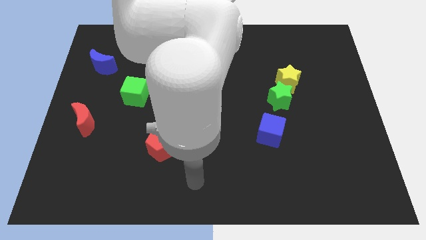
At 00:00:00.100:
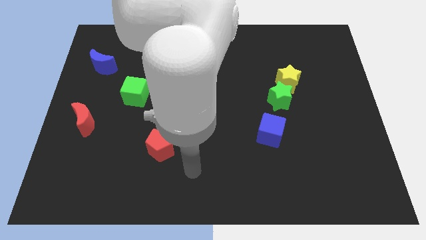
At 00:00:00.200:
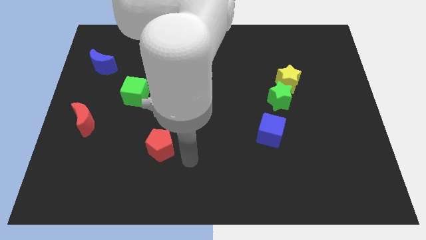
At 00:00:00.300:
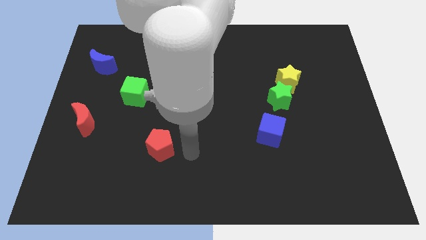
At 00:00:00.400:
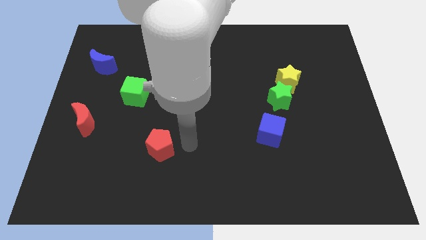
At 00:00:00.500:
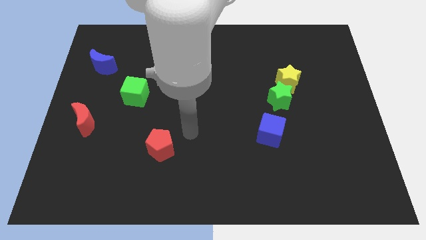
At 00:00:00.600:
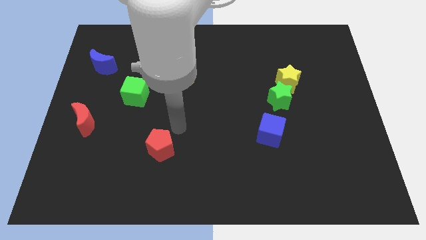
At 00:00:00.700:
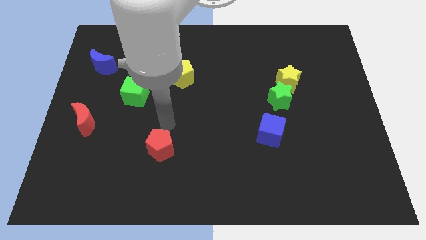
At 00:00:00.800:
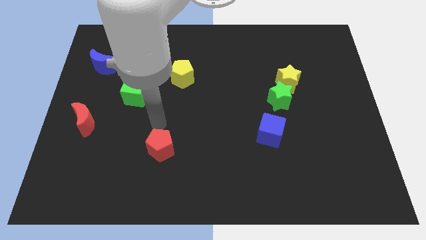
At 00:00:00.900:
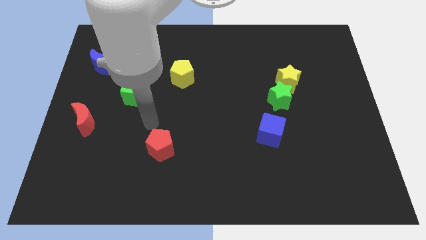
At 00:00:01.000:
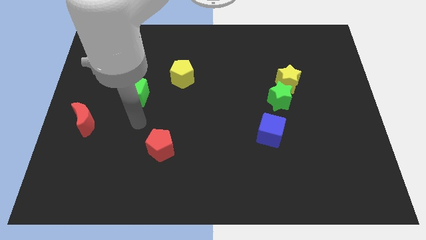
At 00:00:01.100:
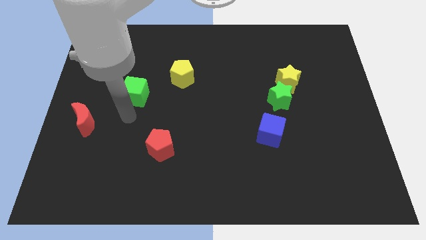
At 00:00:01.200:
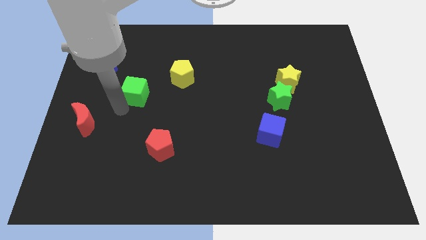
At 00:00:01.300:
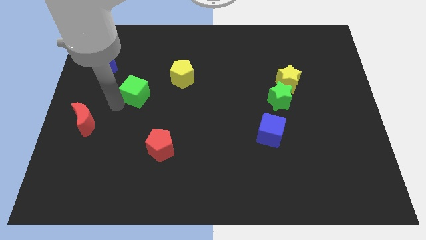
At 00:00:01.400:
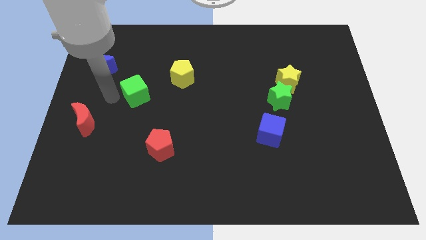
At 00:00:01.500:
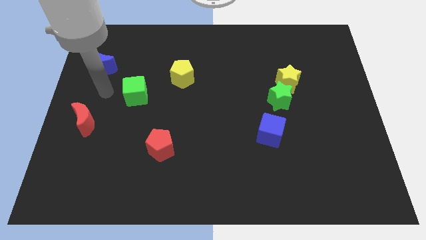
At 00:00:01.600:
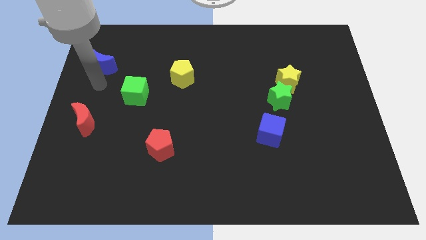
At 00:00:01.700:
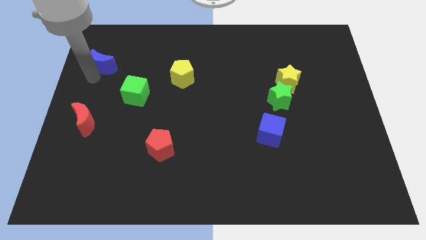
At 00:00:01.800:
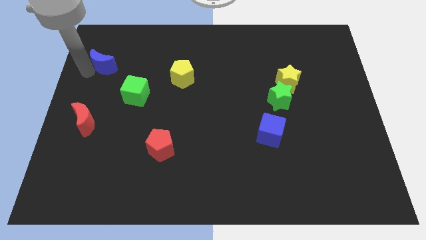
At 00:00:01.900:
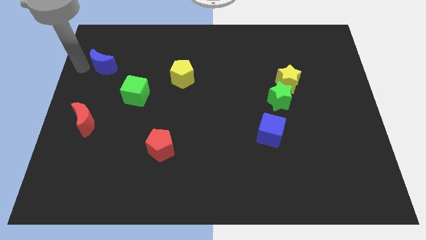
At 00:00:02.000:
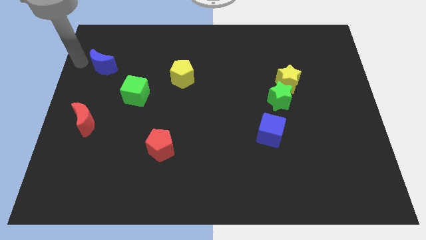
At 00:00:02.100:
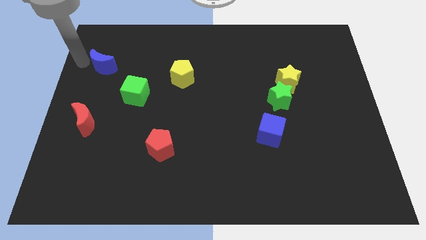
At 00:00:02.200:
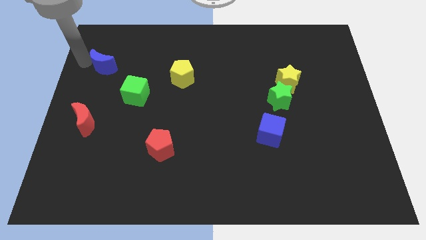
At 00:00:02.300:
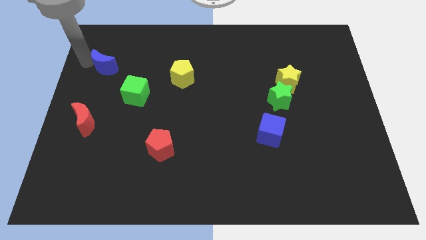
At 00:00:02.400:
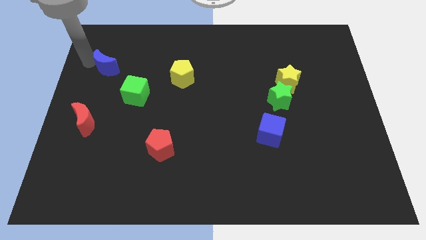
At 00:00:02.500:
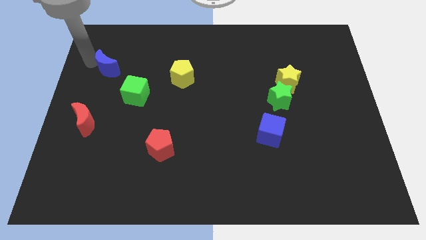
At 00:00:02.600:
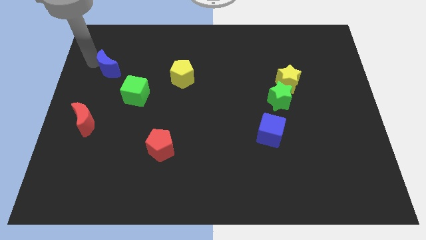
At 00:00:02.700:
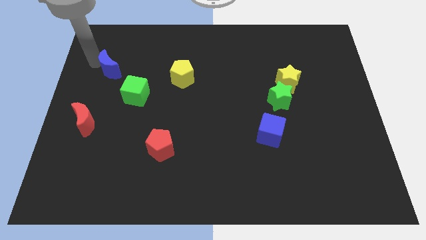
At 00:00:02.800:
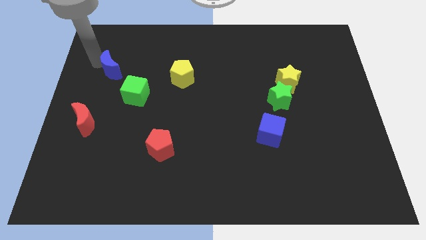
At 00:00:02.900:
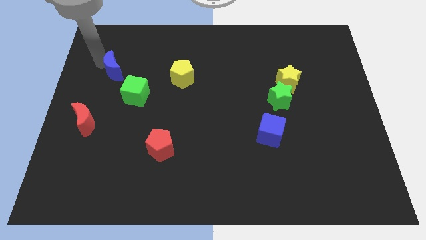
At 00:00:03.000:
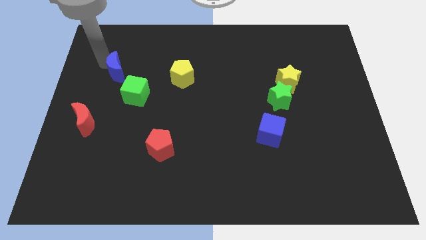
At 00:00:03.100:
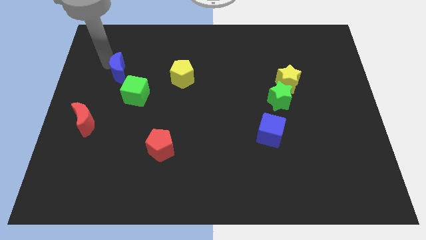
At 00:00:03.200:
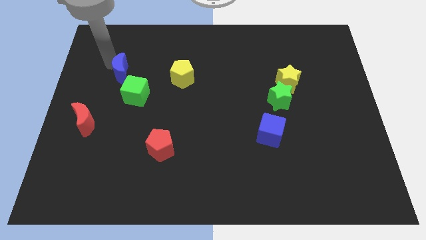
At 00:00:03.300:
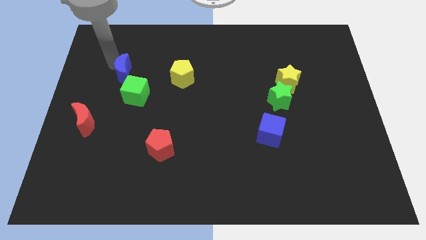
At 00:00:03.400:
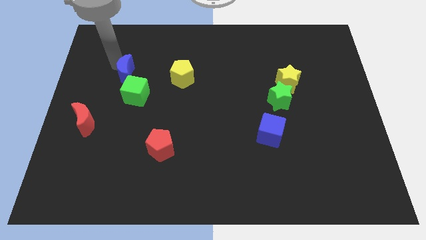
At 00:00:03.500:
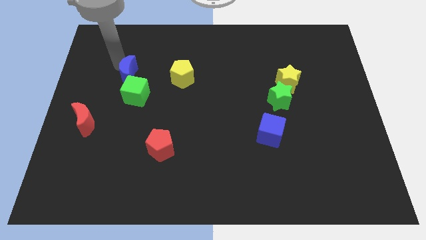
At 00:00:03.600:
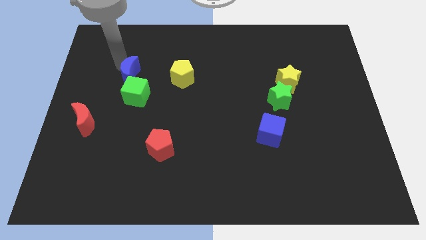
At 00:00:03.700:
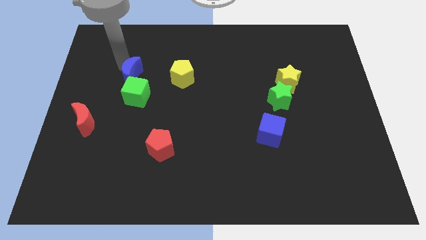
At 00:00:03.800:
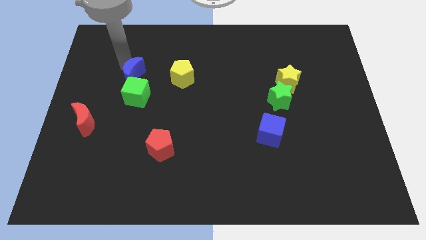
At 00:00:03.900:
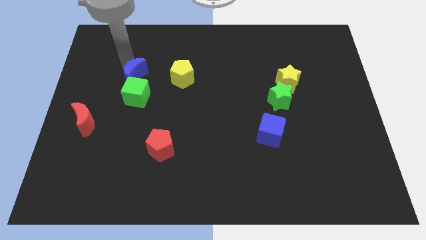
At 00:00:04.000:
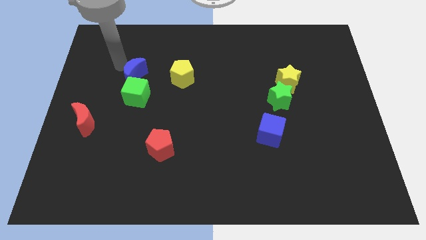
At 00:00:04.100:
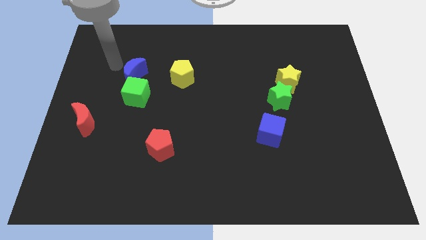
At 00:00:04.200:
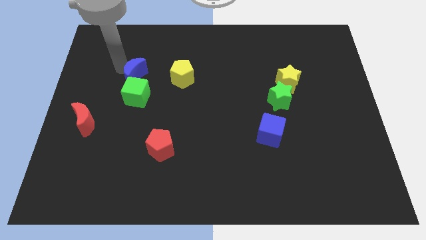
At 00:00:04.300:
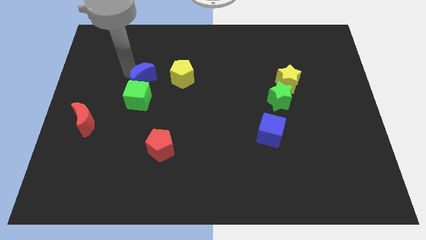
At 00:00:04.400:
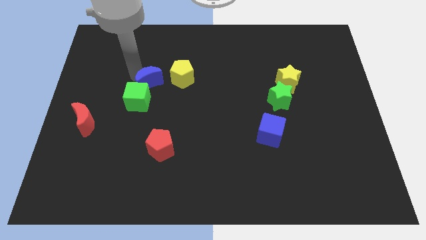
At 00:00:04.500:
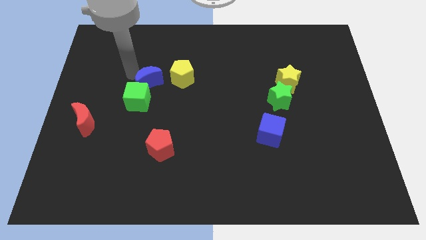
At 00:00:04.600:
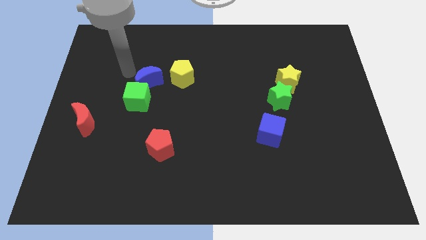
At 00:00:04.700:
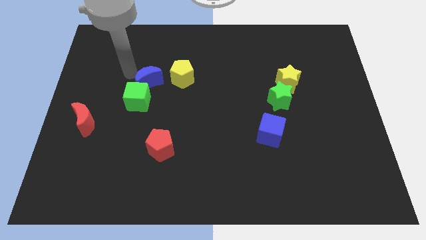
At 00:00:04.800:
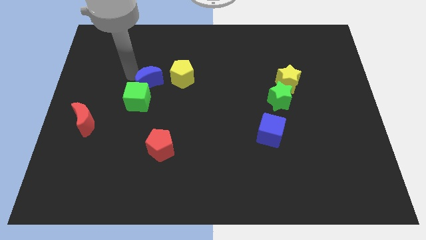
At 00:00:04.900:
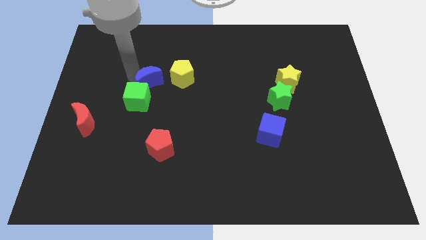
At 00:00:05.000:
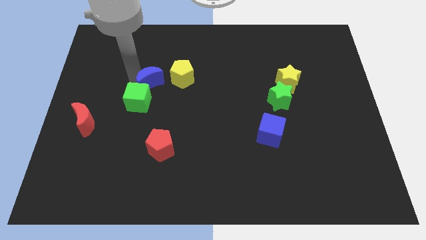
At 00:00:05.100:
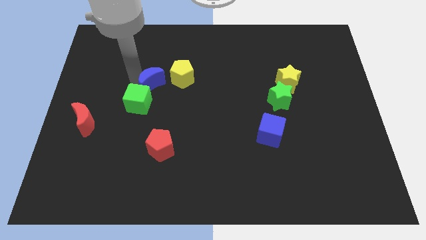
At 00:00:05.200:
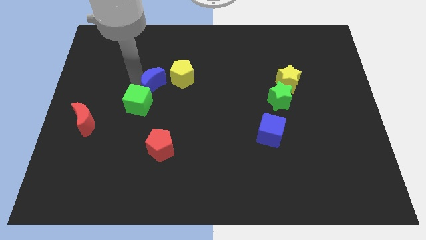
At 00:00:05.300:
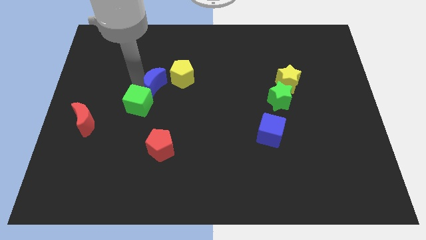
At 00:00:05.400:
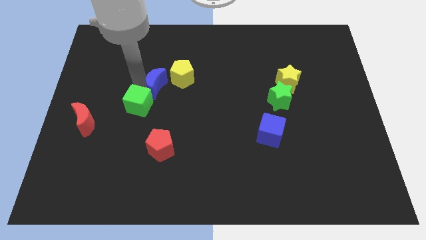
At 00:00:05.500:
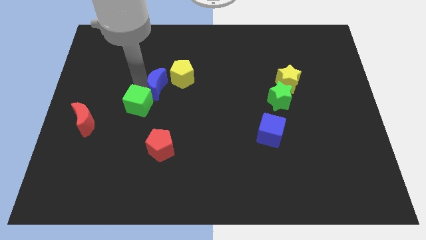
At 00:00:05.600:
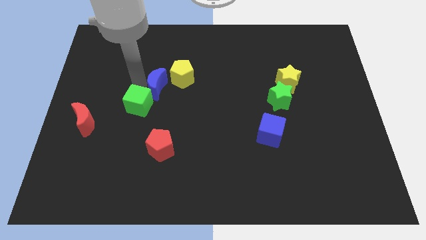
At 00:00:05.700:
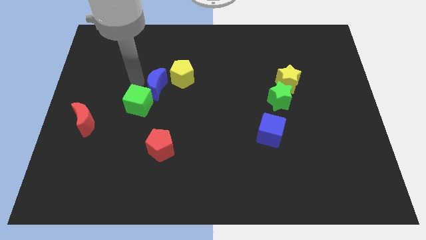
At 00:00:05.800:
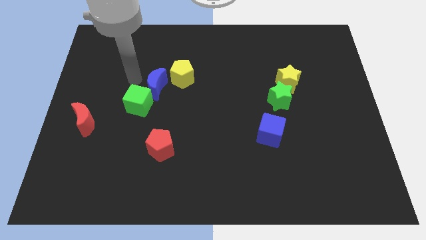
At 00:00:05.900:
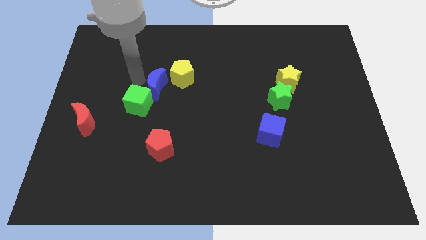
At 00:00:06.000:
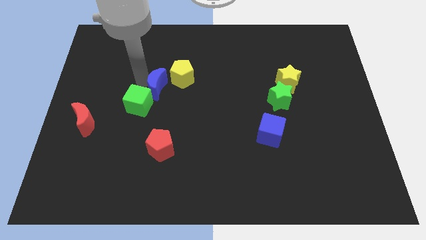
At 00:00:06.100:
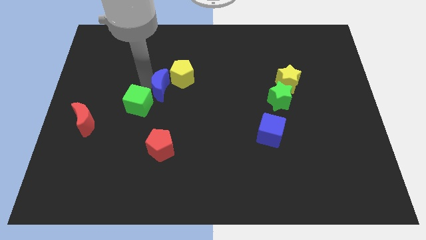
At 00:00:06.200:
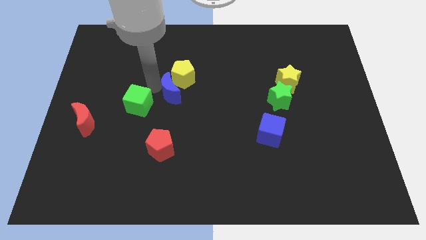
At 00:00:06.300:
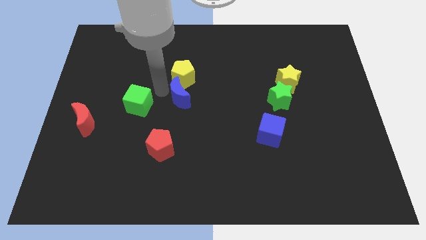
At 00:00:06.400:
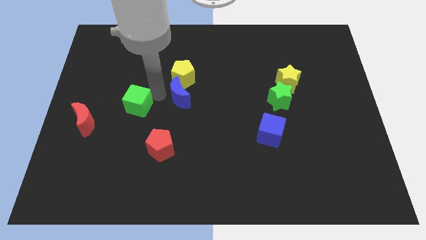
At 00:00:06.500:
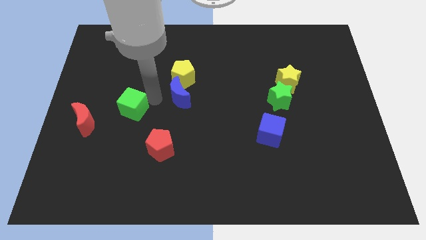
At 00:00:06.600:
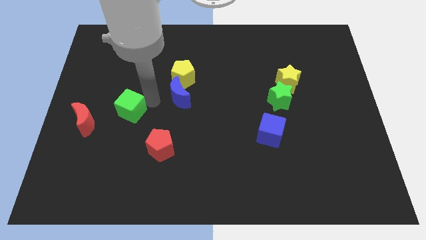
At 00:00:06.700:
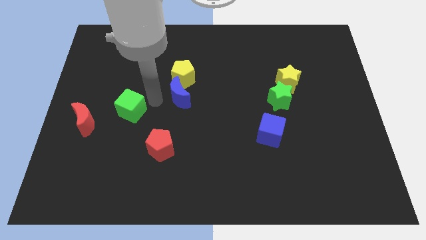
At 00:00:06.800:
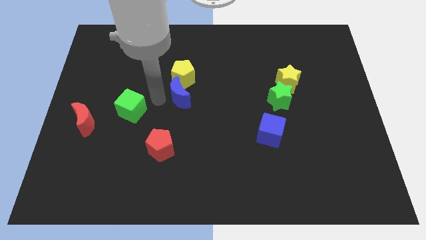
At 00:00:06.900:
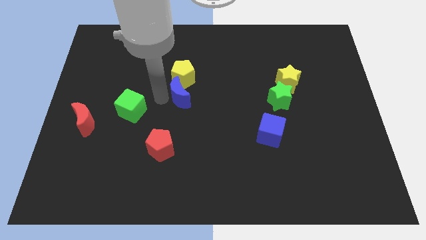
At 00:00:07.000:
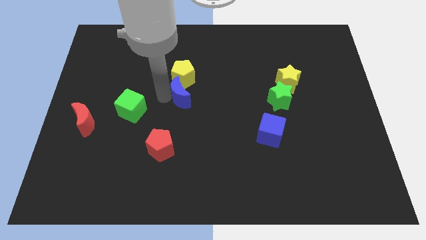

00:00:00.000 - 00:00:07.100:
put the blue moon diagonally down and to the right of the yellow pentagon
